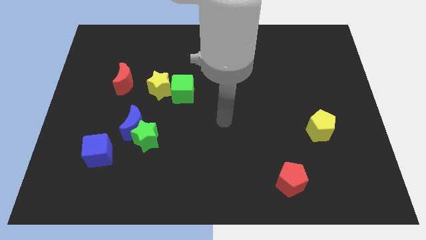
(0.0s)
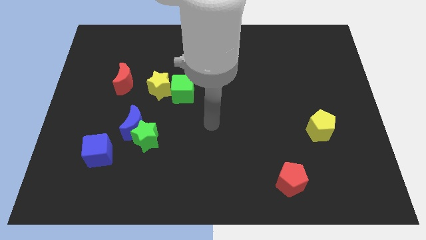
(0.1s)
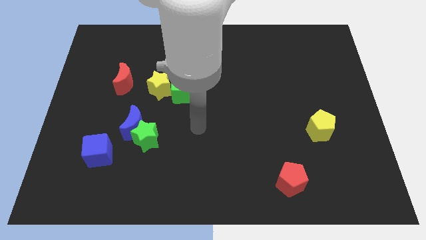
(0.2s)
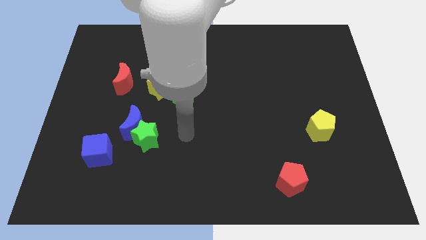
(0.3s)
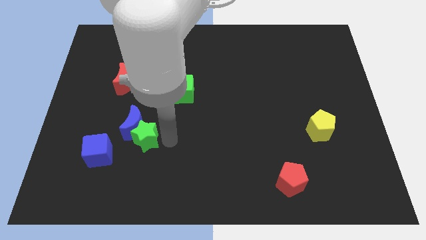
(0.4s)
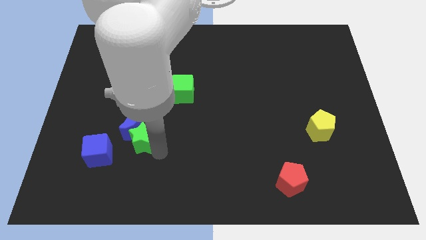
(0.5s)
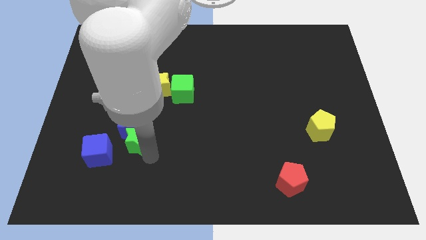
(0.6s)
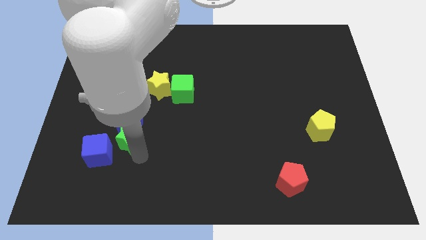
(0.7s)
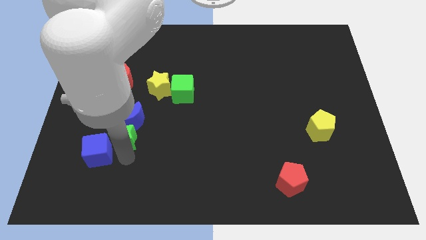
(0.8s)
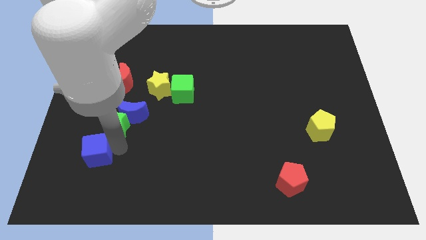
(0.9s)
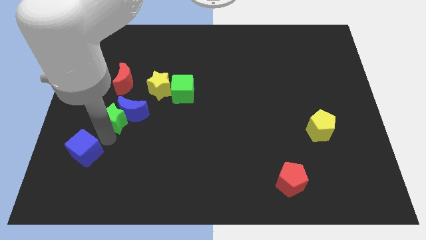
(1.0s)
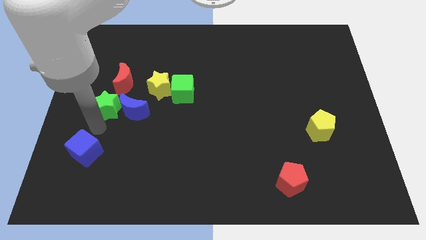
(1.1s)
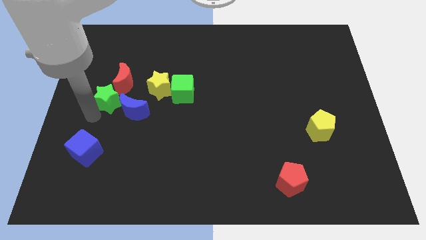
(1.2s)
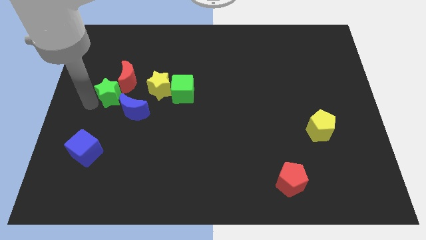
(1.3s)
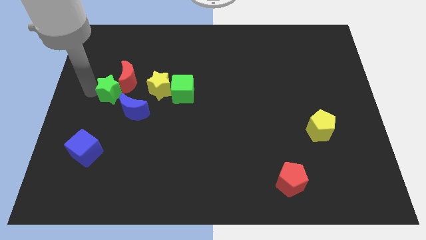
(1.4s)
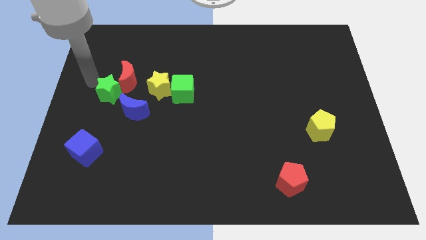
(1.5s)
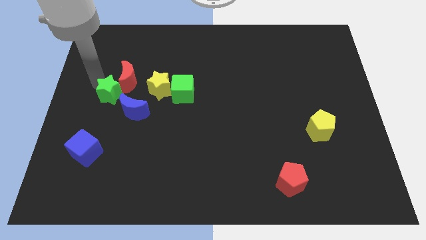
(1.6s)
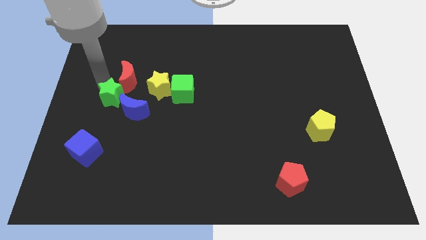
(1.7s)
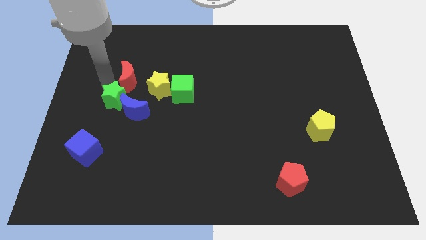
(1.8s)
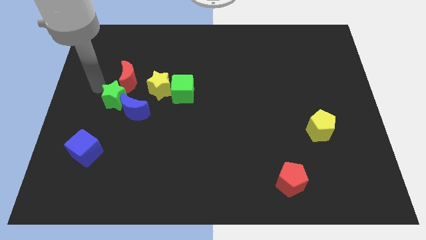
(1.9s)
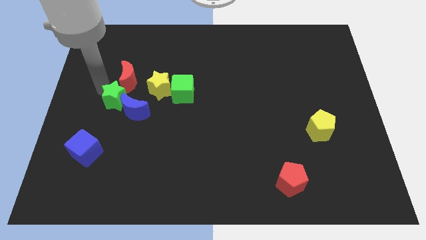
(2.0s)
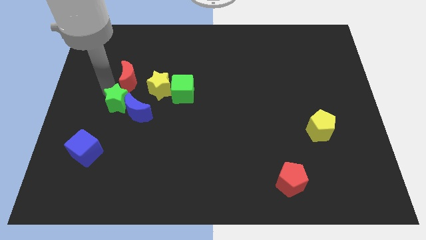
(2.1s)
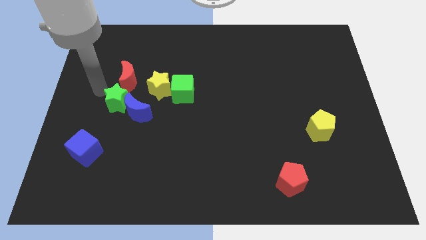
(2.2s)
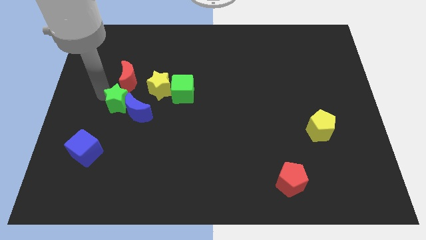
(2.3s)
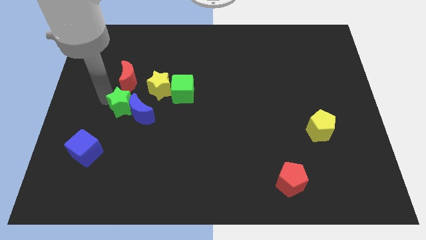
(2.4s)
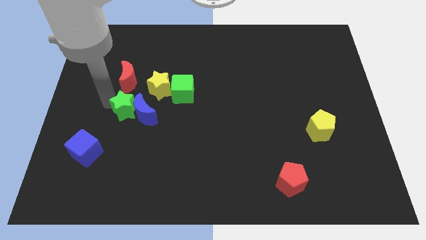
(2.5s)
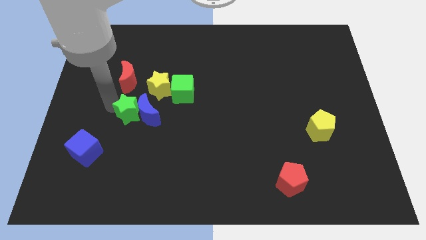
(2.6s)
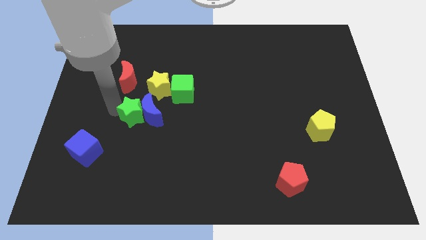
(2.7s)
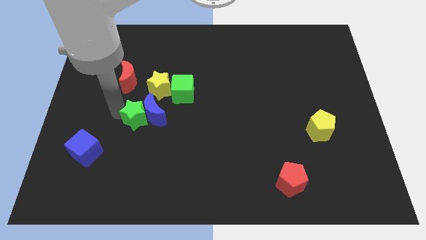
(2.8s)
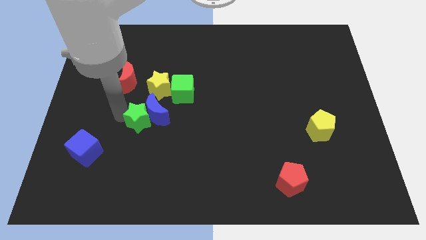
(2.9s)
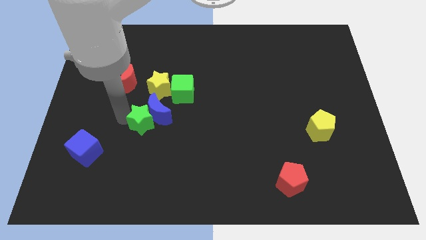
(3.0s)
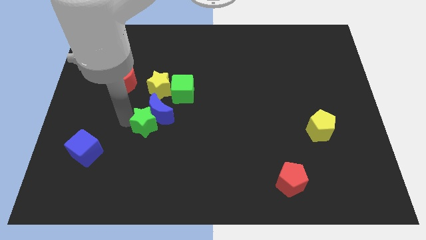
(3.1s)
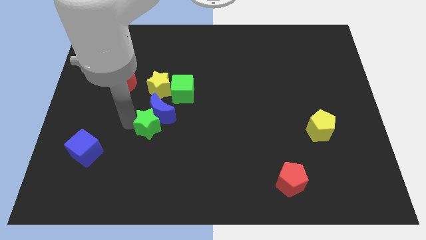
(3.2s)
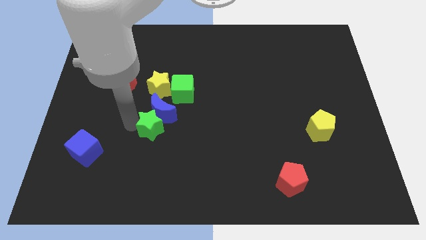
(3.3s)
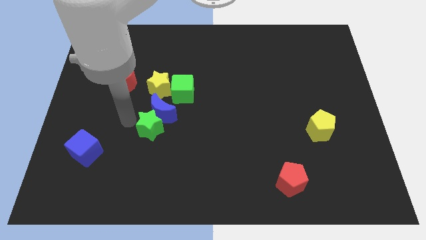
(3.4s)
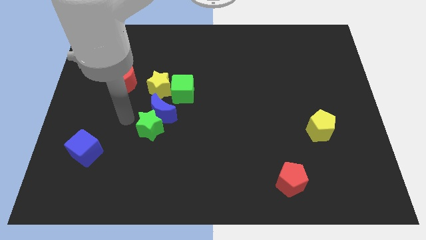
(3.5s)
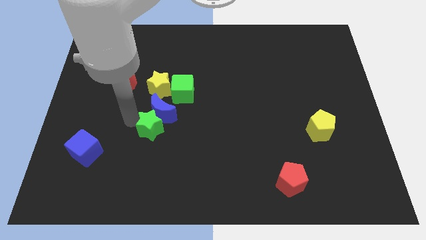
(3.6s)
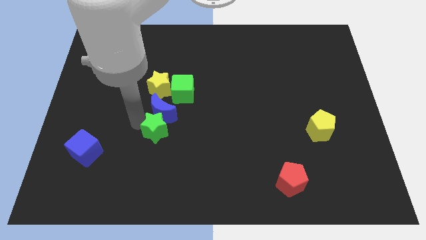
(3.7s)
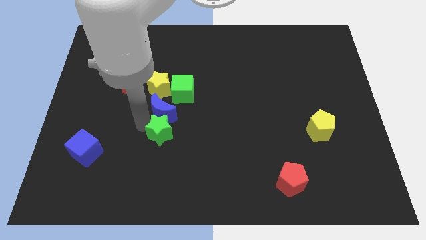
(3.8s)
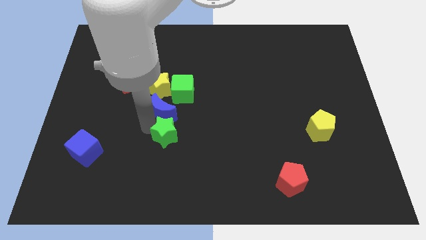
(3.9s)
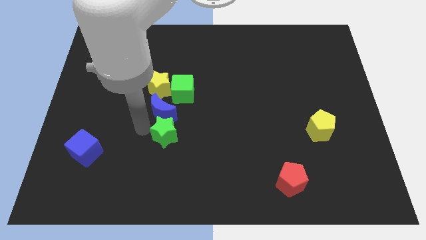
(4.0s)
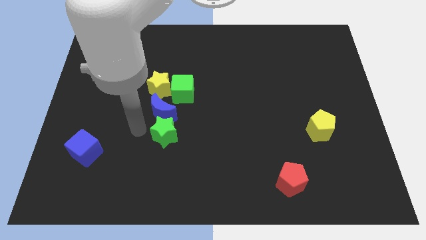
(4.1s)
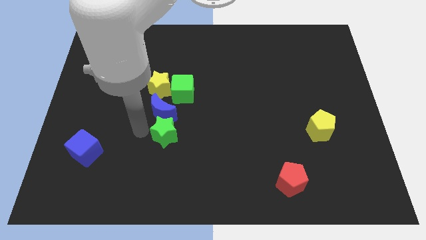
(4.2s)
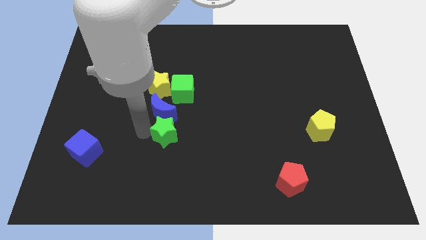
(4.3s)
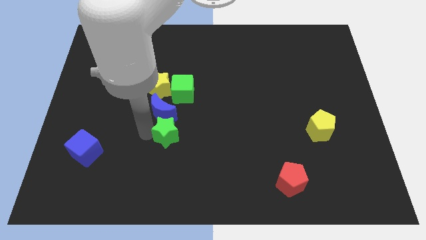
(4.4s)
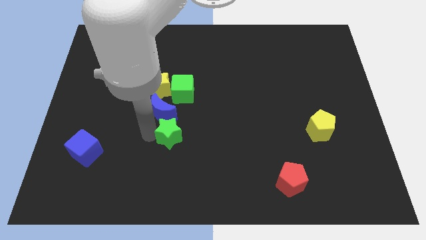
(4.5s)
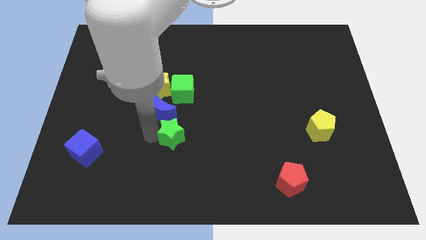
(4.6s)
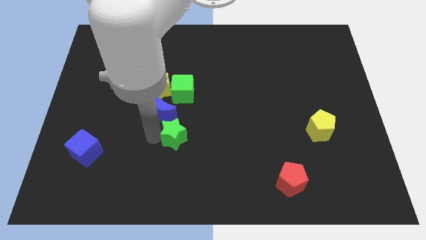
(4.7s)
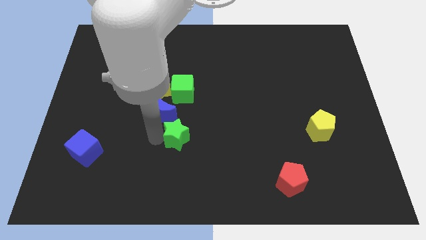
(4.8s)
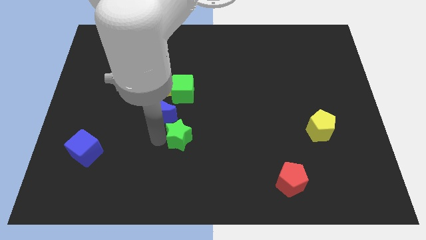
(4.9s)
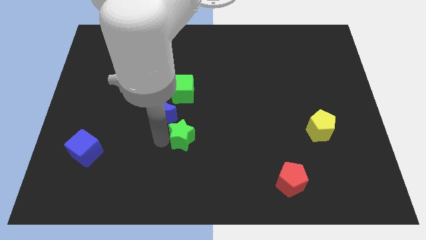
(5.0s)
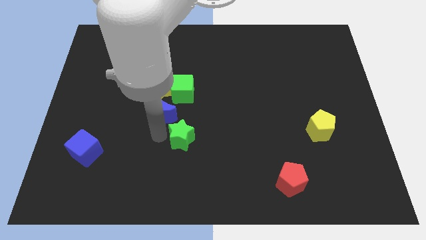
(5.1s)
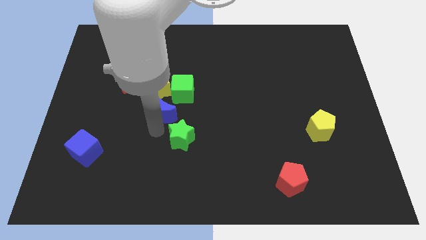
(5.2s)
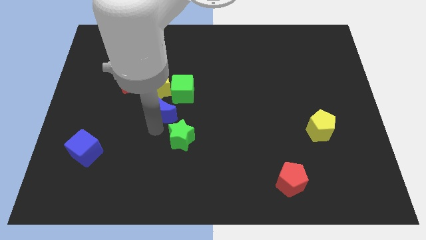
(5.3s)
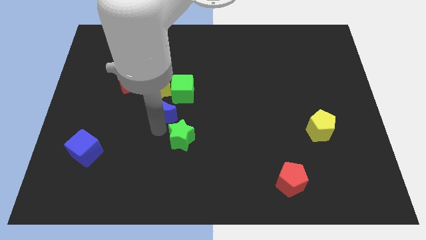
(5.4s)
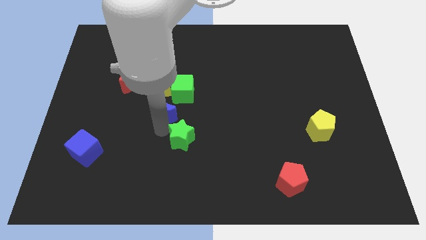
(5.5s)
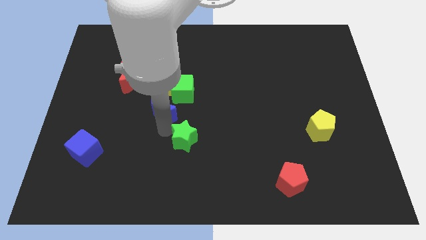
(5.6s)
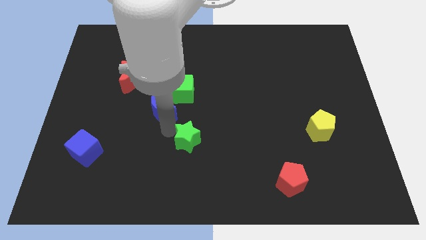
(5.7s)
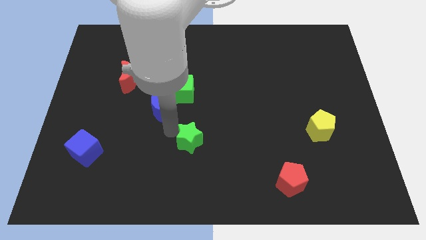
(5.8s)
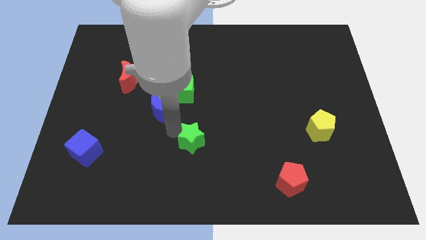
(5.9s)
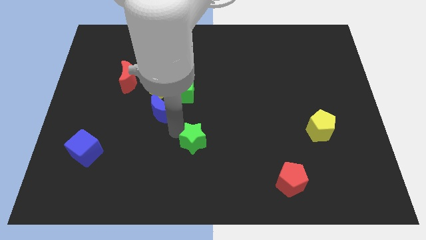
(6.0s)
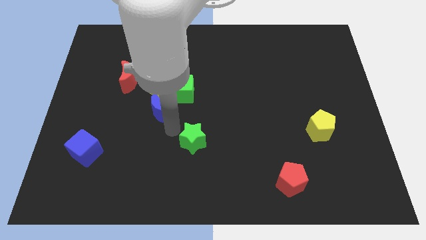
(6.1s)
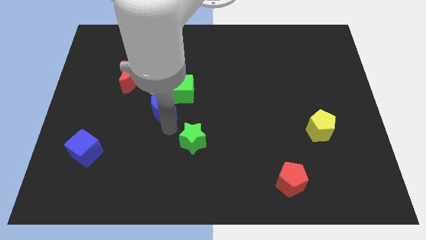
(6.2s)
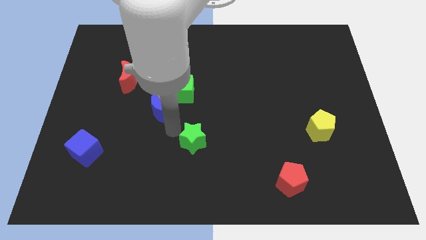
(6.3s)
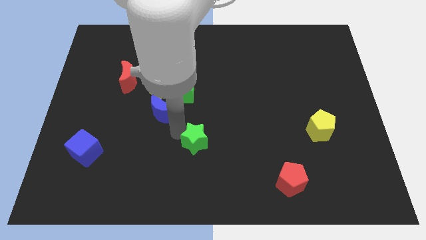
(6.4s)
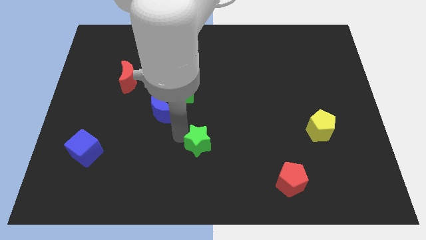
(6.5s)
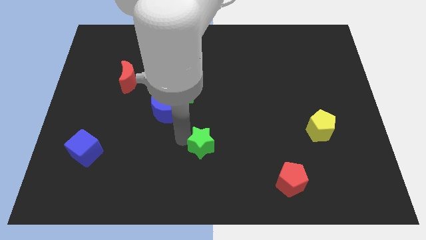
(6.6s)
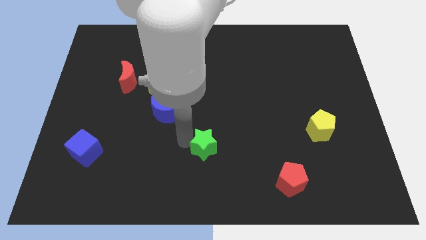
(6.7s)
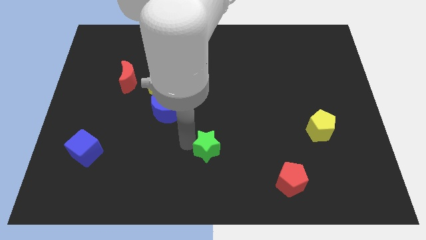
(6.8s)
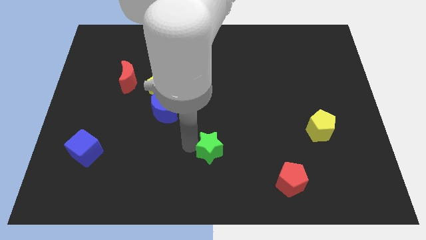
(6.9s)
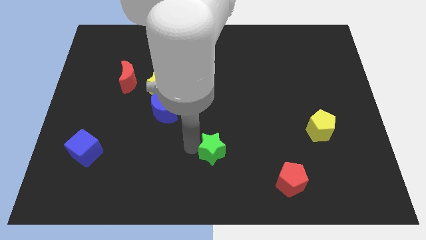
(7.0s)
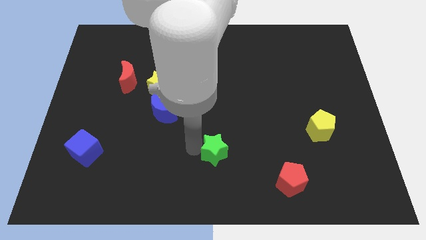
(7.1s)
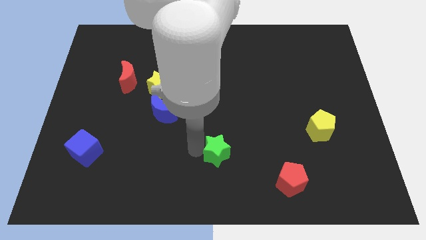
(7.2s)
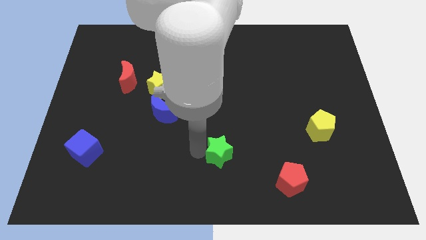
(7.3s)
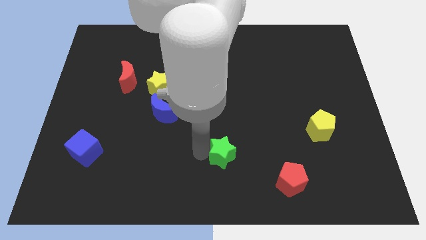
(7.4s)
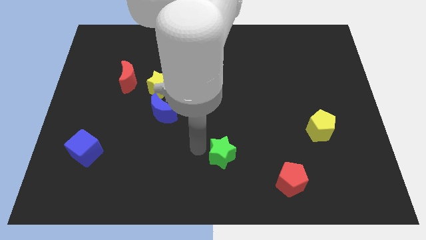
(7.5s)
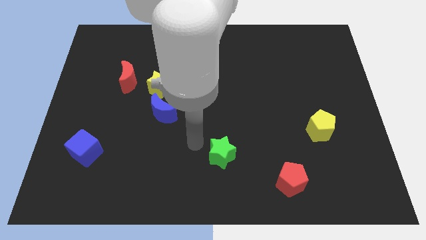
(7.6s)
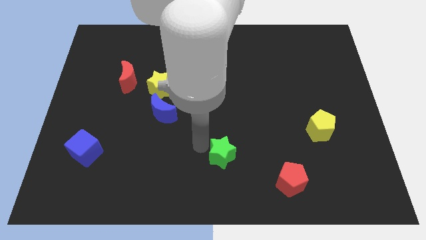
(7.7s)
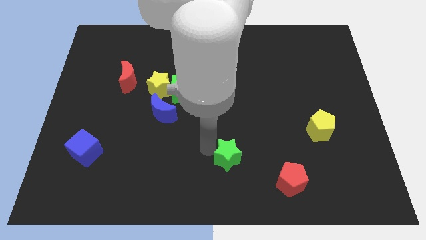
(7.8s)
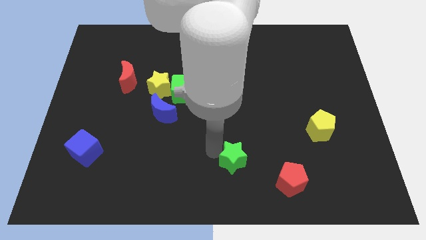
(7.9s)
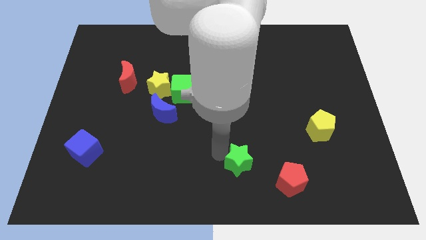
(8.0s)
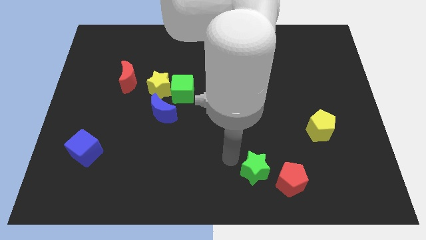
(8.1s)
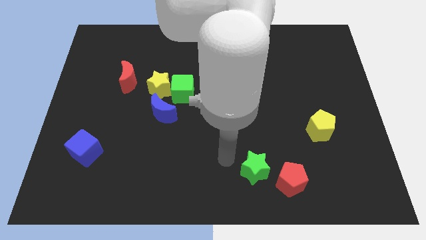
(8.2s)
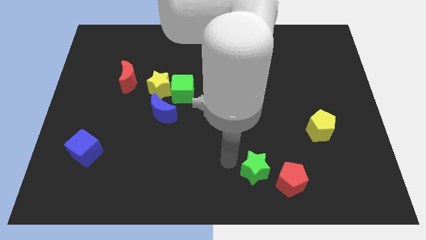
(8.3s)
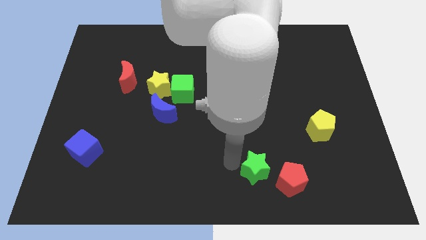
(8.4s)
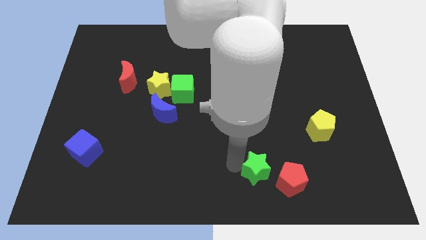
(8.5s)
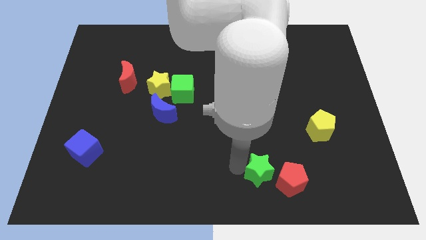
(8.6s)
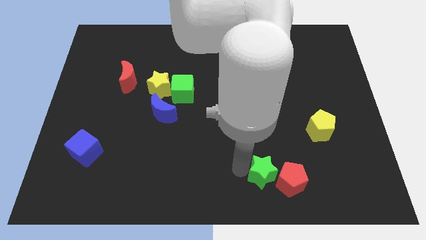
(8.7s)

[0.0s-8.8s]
slide the green star close to the red pentagon
